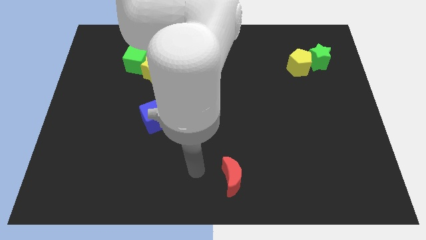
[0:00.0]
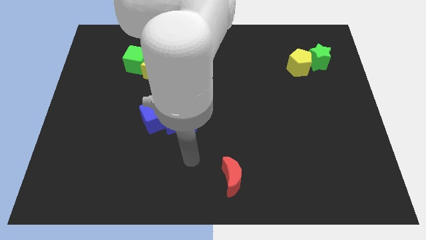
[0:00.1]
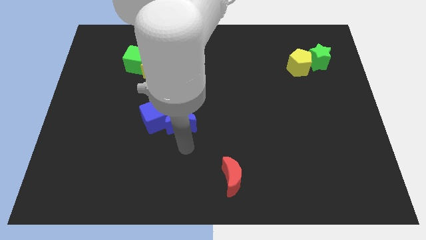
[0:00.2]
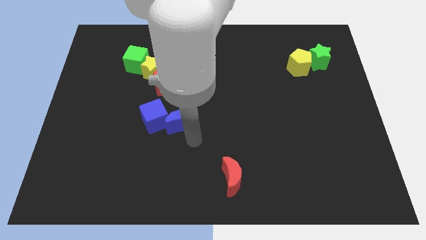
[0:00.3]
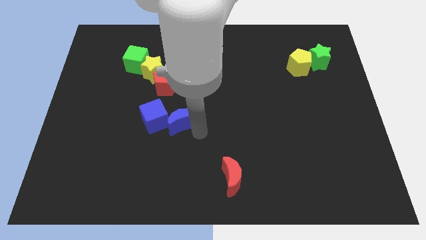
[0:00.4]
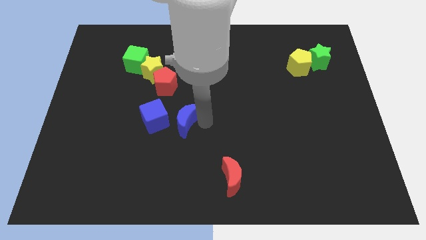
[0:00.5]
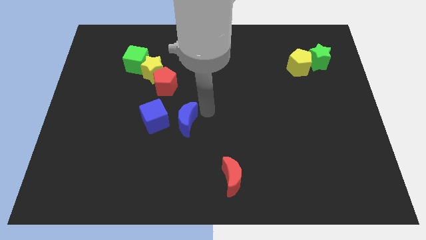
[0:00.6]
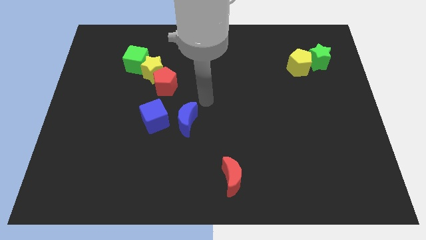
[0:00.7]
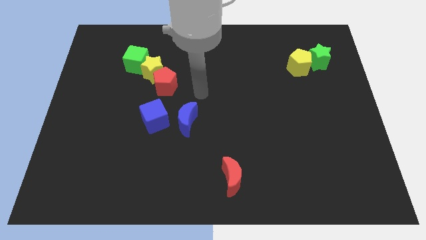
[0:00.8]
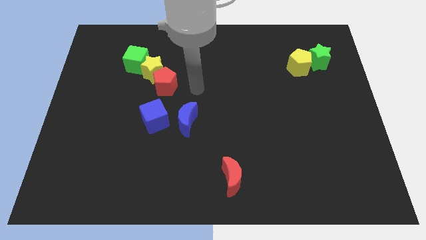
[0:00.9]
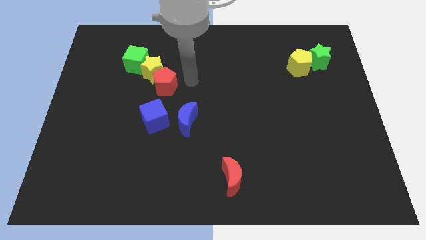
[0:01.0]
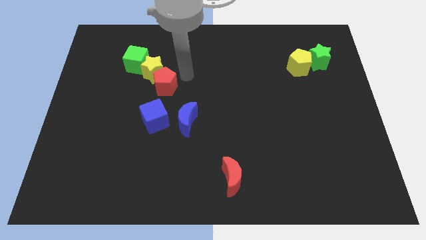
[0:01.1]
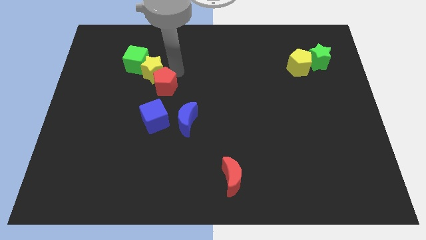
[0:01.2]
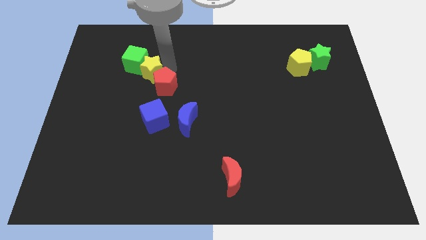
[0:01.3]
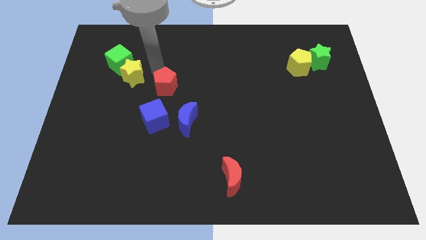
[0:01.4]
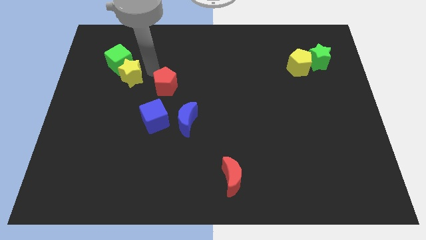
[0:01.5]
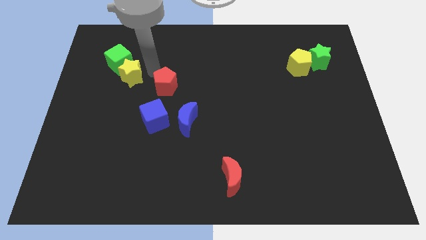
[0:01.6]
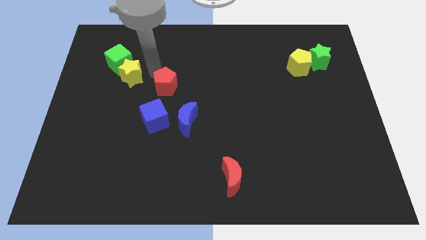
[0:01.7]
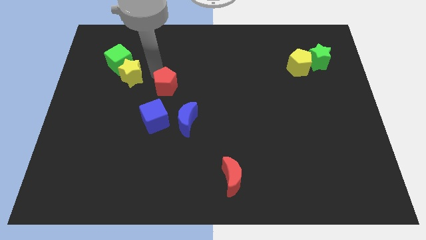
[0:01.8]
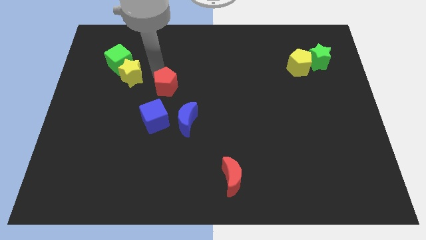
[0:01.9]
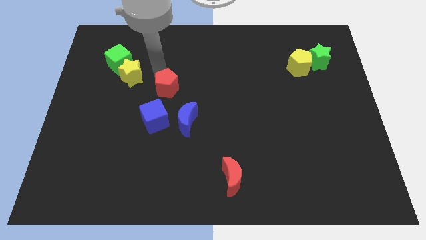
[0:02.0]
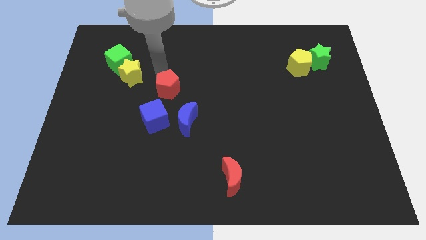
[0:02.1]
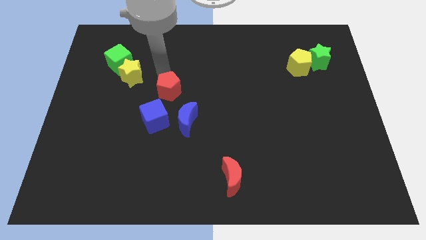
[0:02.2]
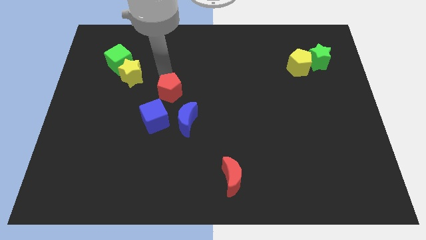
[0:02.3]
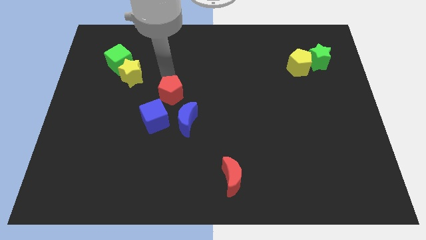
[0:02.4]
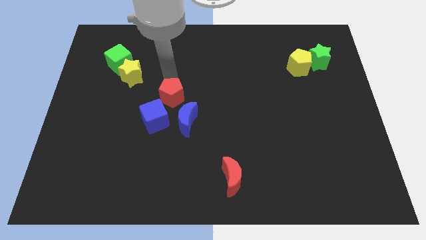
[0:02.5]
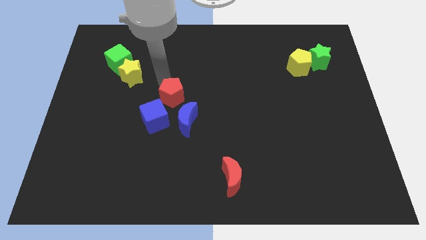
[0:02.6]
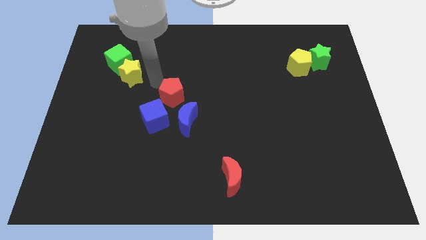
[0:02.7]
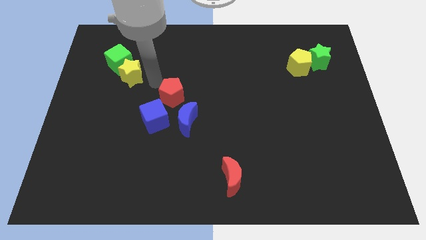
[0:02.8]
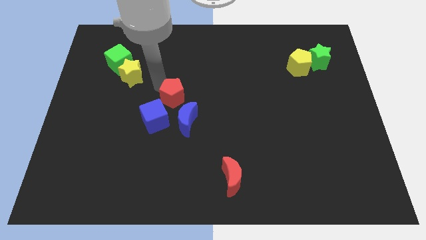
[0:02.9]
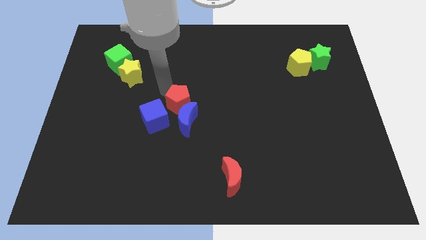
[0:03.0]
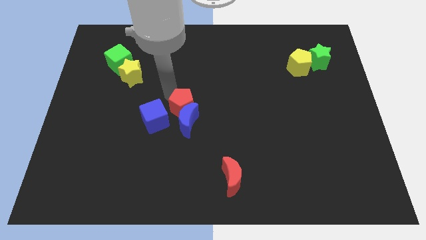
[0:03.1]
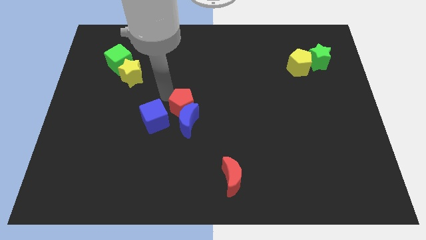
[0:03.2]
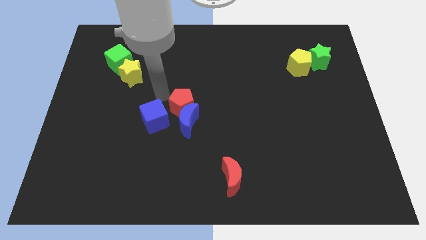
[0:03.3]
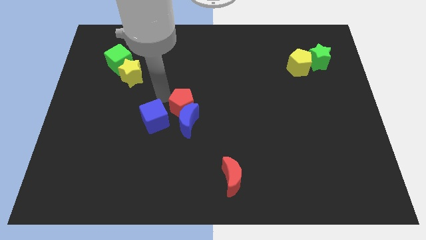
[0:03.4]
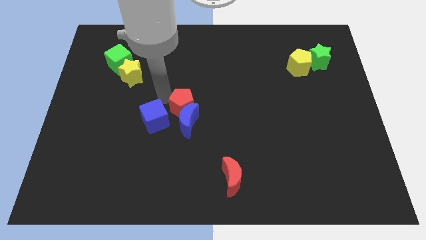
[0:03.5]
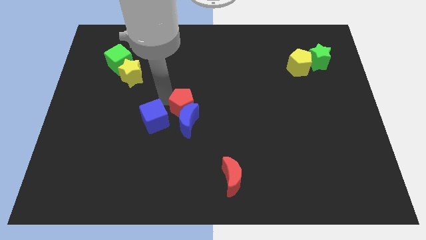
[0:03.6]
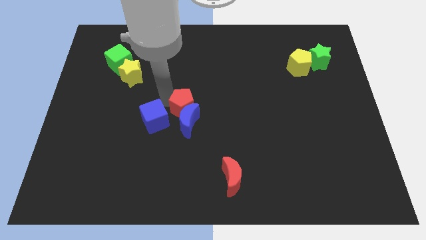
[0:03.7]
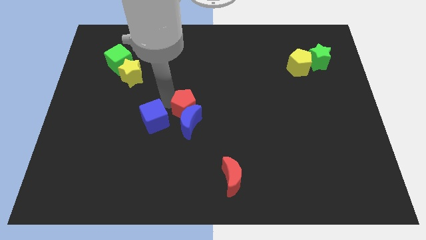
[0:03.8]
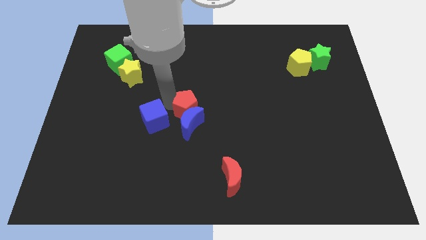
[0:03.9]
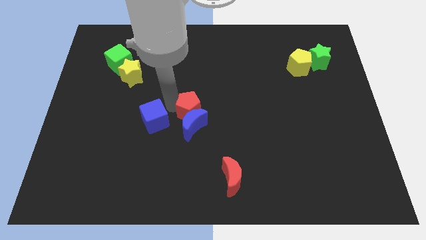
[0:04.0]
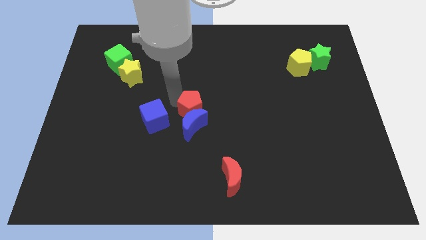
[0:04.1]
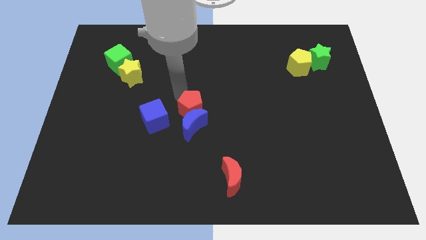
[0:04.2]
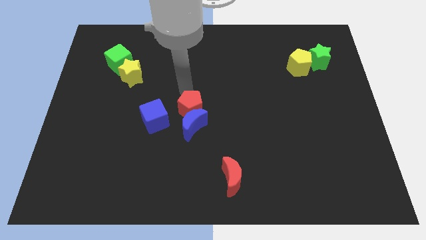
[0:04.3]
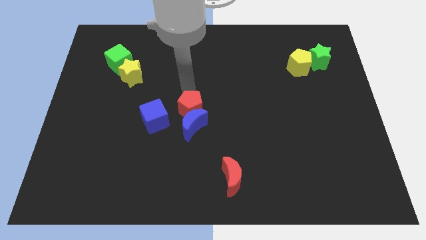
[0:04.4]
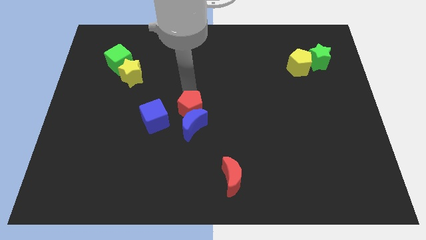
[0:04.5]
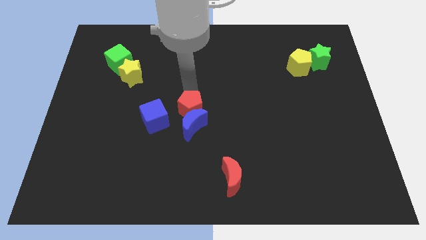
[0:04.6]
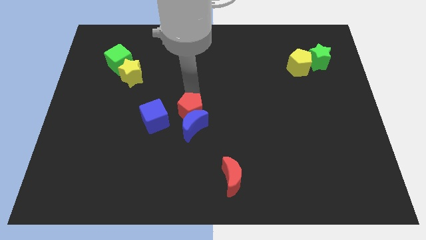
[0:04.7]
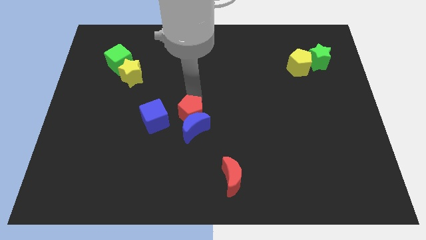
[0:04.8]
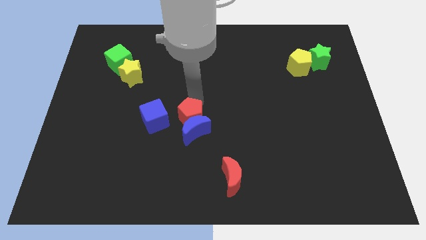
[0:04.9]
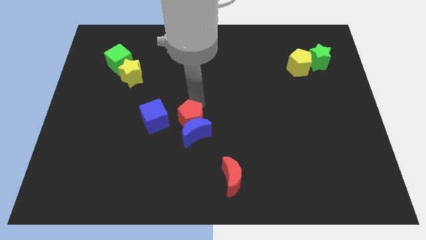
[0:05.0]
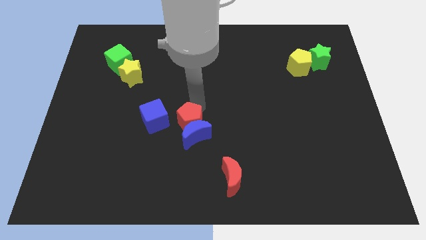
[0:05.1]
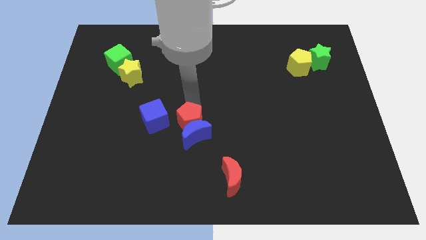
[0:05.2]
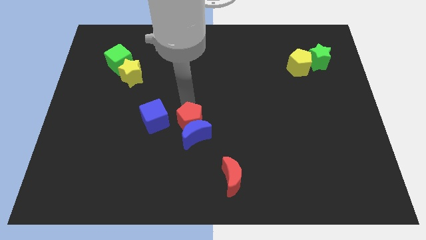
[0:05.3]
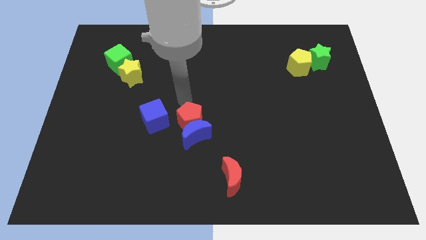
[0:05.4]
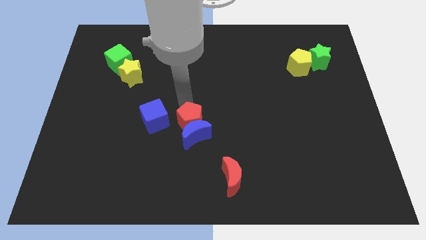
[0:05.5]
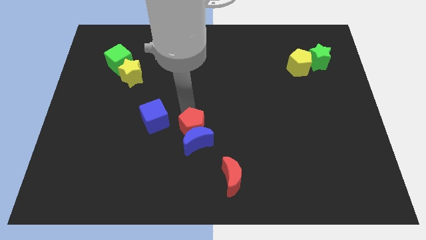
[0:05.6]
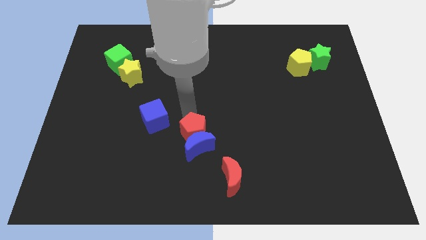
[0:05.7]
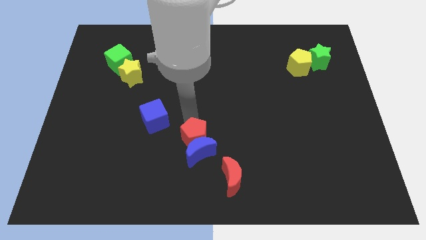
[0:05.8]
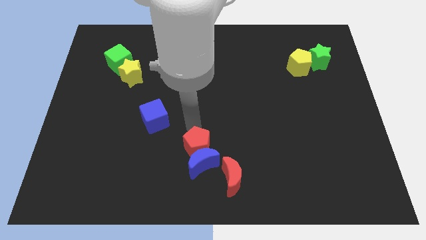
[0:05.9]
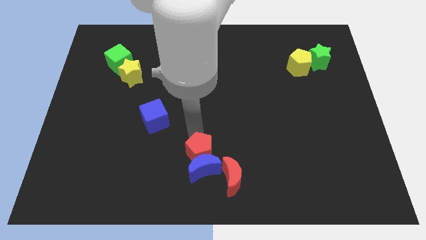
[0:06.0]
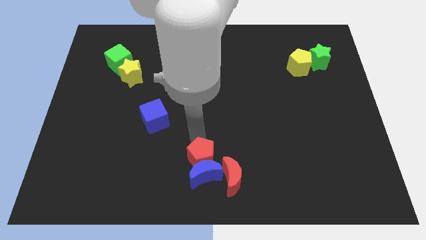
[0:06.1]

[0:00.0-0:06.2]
put the red pentagon to the bottom
